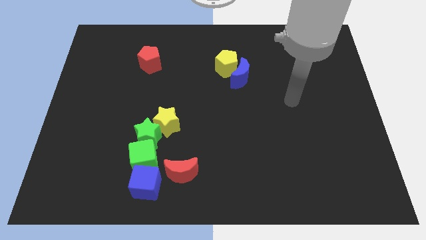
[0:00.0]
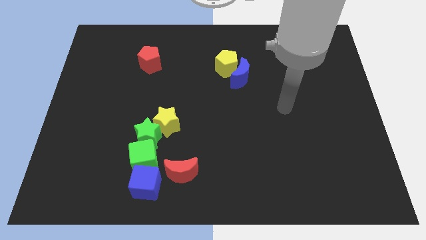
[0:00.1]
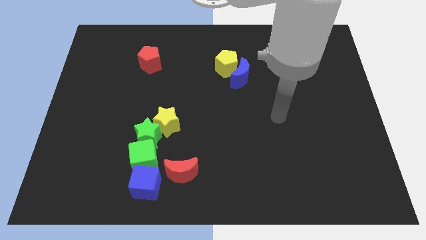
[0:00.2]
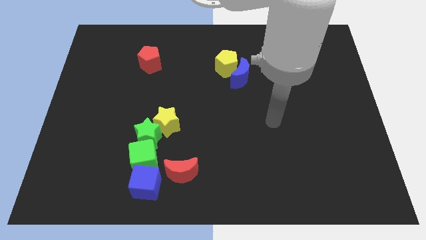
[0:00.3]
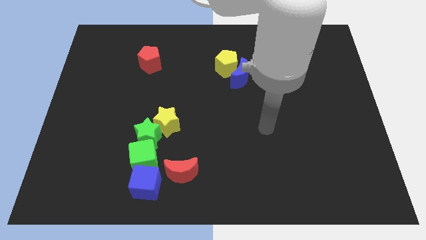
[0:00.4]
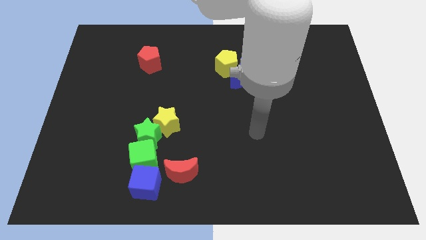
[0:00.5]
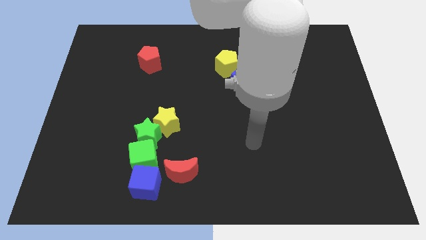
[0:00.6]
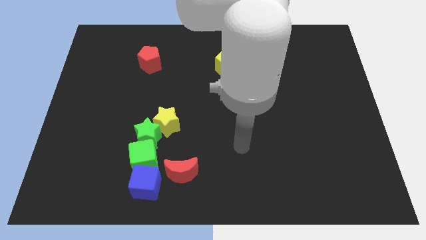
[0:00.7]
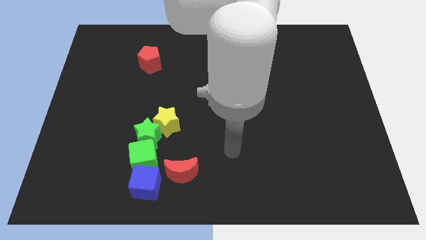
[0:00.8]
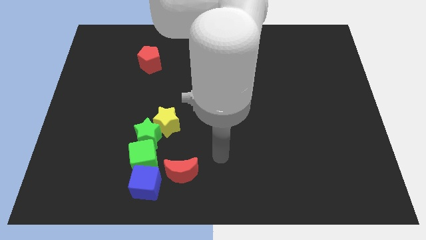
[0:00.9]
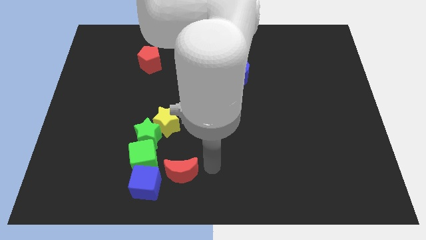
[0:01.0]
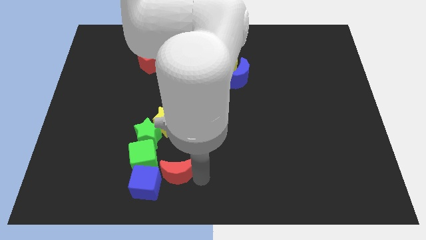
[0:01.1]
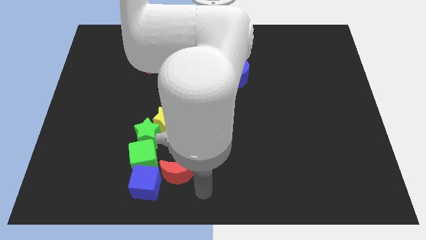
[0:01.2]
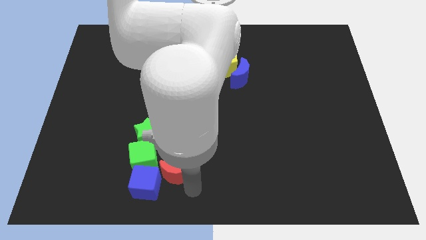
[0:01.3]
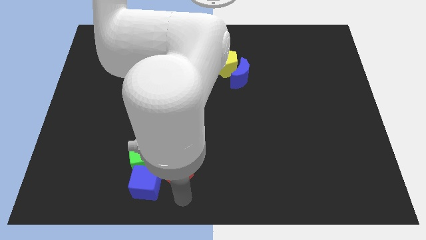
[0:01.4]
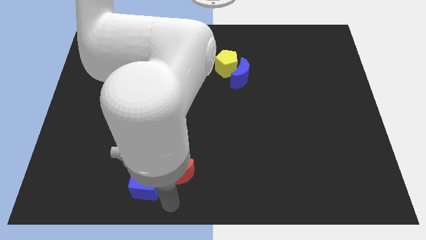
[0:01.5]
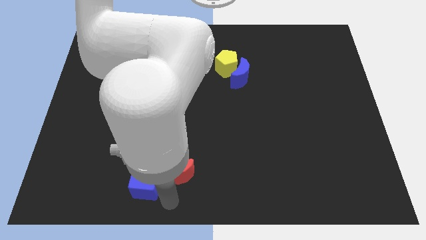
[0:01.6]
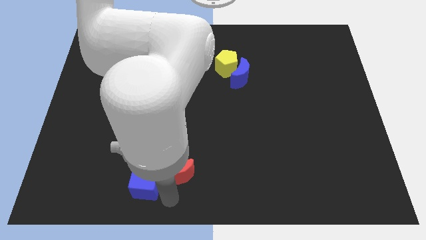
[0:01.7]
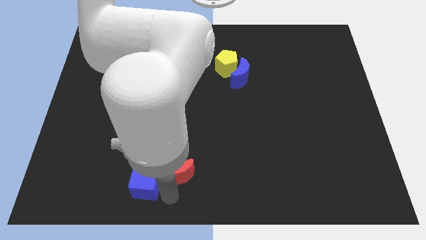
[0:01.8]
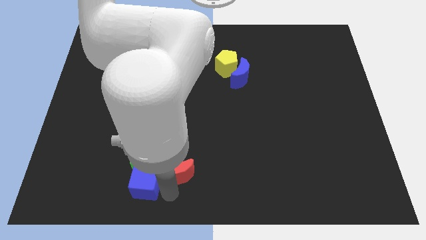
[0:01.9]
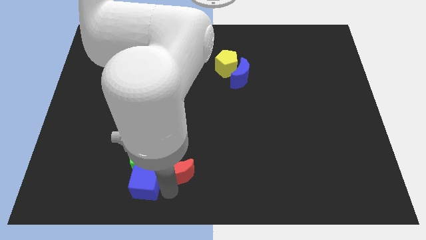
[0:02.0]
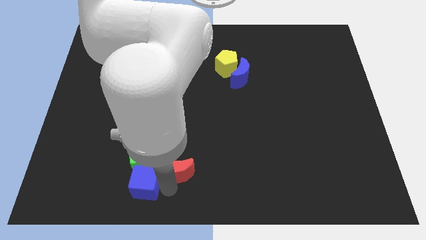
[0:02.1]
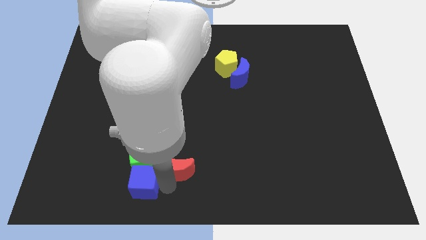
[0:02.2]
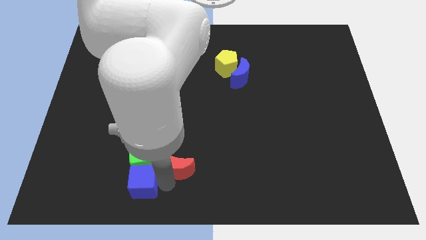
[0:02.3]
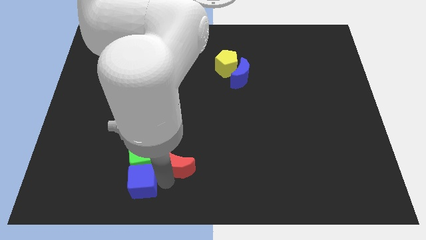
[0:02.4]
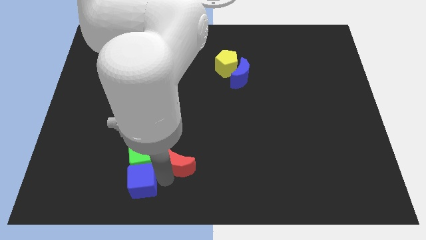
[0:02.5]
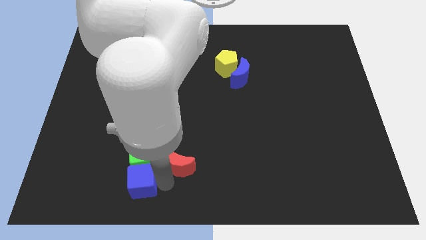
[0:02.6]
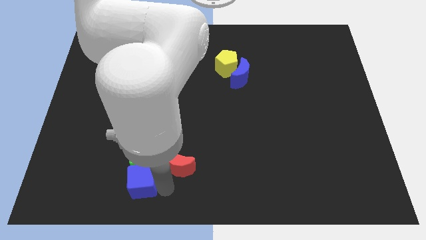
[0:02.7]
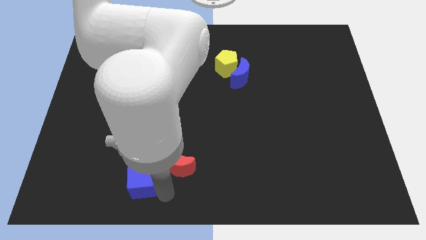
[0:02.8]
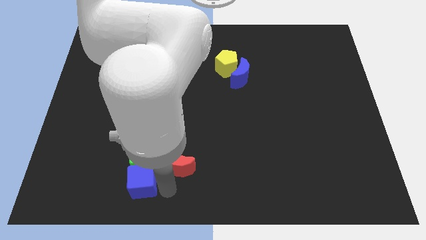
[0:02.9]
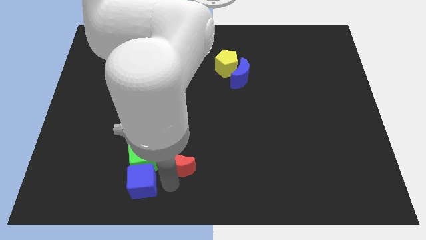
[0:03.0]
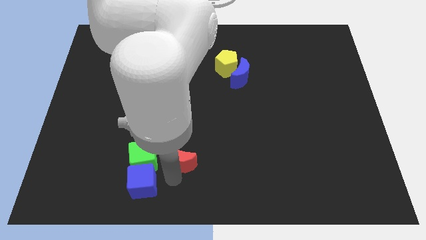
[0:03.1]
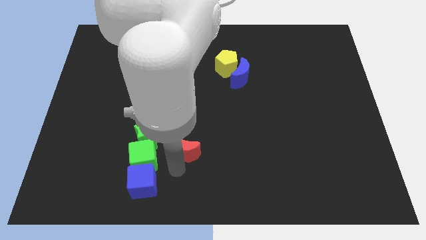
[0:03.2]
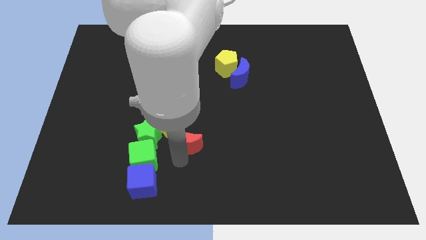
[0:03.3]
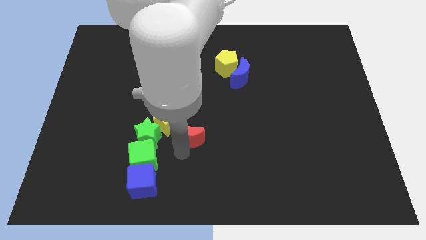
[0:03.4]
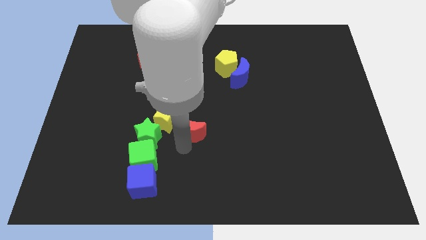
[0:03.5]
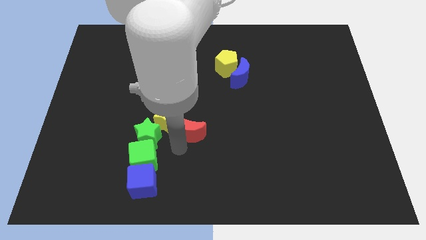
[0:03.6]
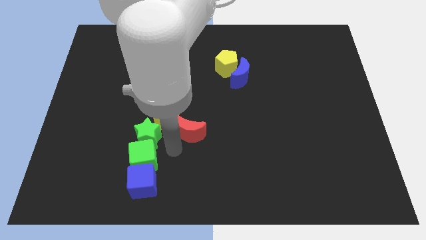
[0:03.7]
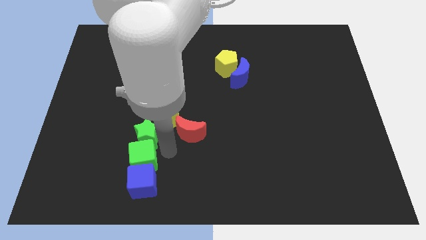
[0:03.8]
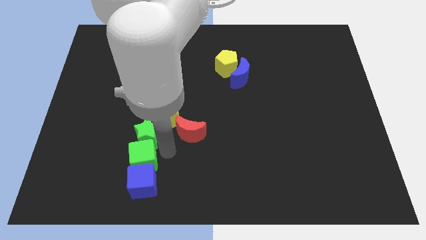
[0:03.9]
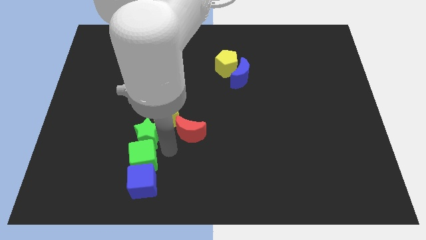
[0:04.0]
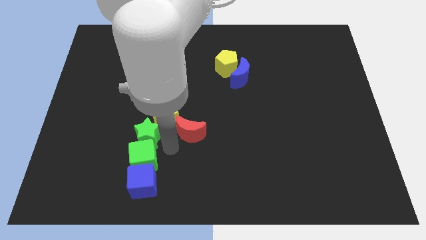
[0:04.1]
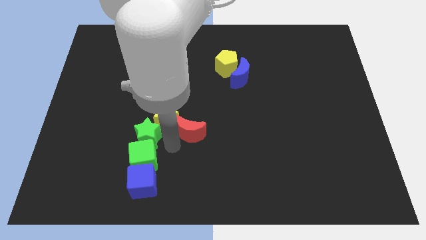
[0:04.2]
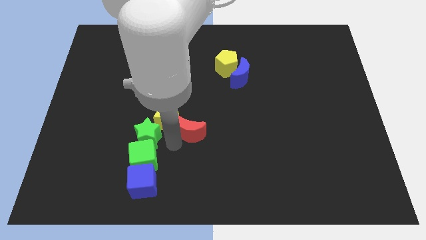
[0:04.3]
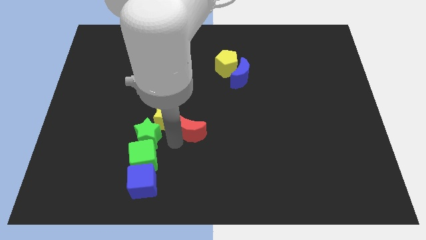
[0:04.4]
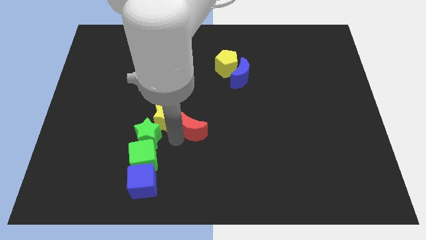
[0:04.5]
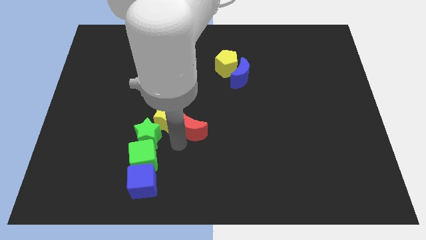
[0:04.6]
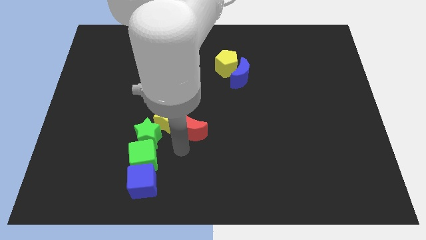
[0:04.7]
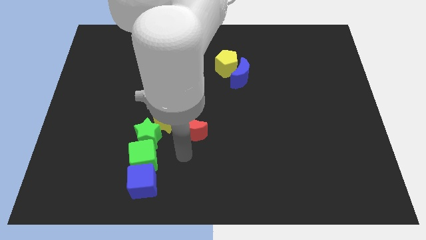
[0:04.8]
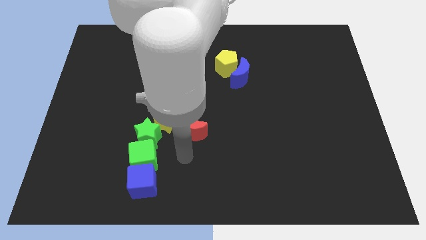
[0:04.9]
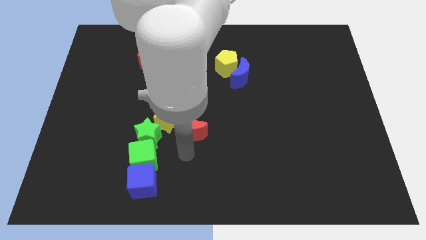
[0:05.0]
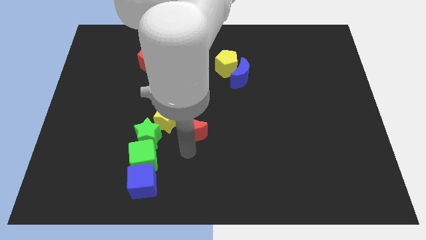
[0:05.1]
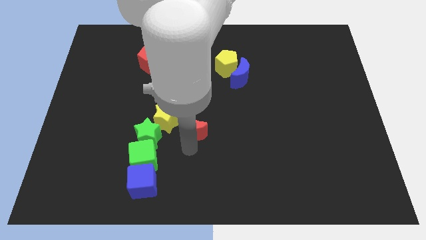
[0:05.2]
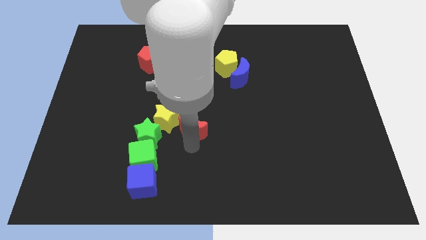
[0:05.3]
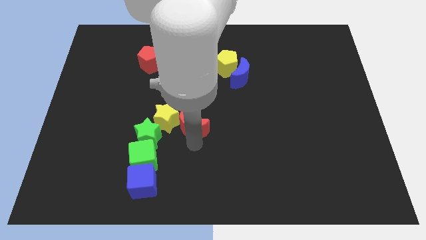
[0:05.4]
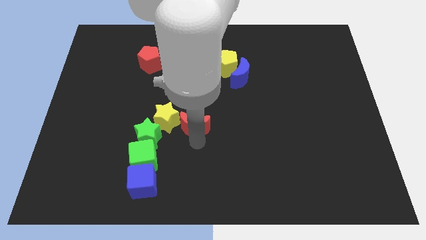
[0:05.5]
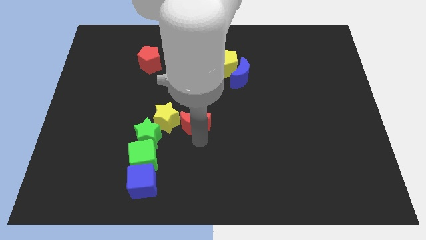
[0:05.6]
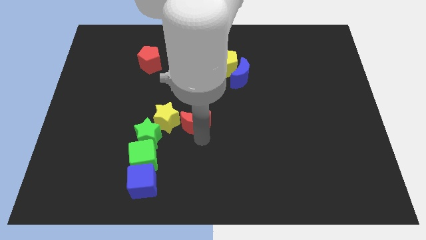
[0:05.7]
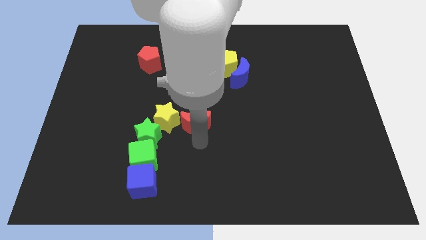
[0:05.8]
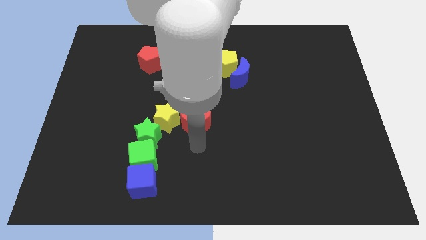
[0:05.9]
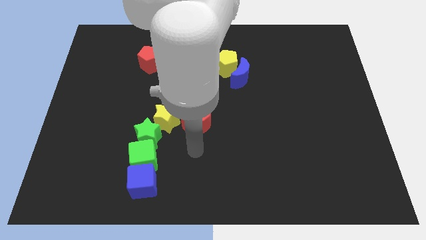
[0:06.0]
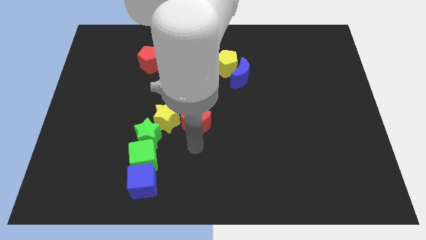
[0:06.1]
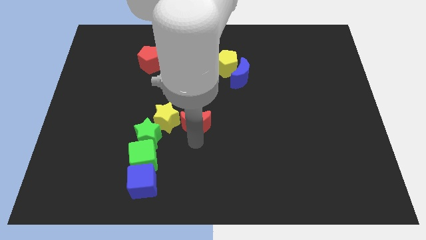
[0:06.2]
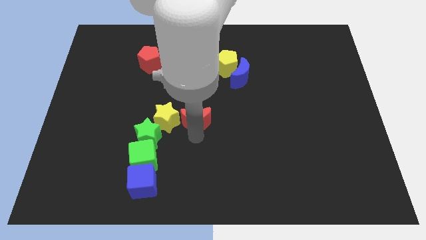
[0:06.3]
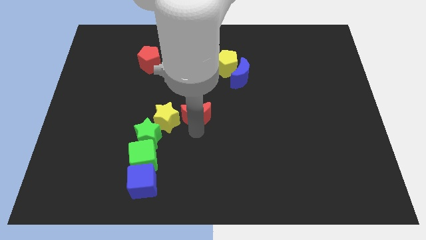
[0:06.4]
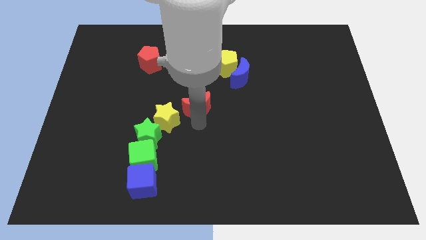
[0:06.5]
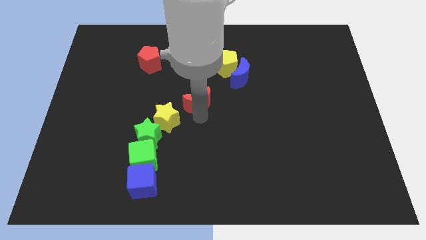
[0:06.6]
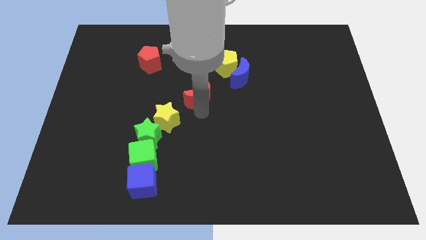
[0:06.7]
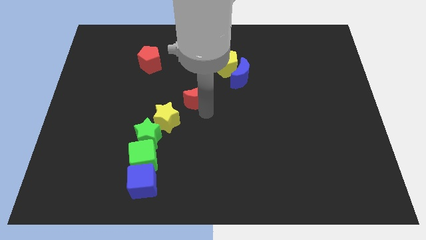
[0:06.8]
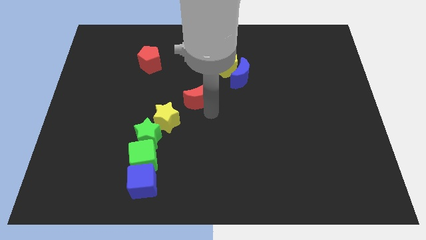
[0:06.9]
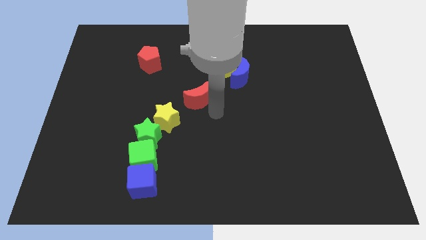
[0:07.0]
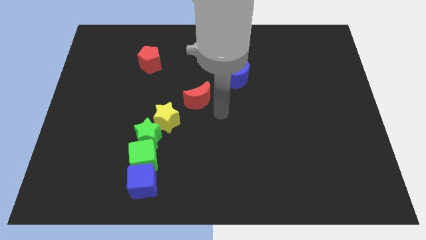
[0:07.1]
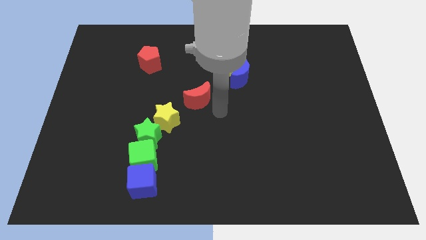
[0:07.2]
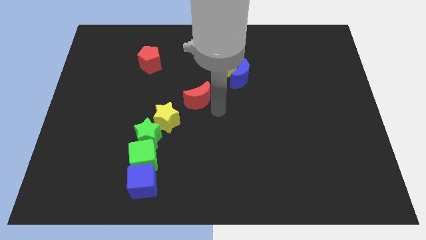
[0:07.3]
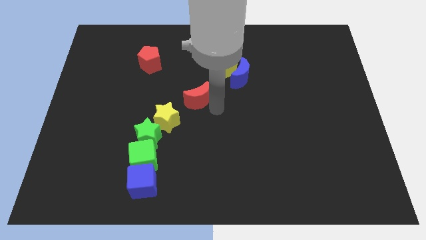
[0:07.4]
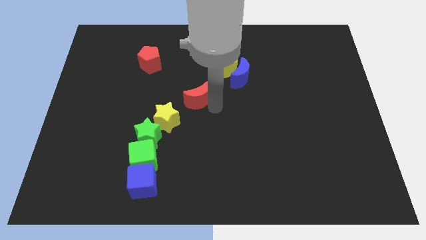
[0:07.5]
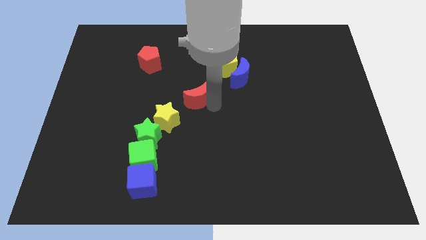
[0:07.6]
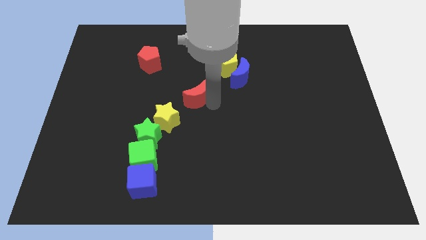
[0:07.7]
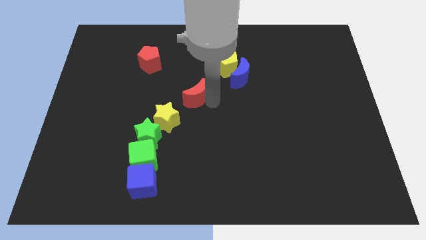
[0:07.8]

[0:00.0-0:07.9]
slide the red moon upwards
